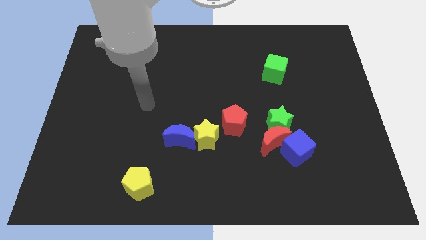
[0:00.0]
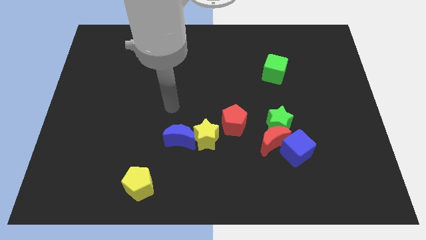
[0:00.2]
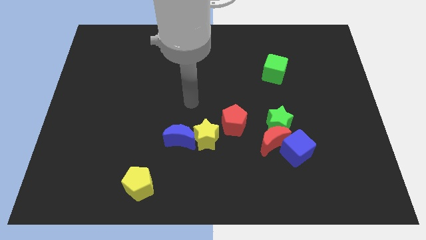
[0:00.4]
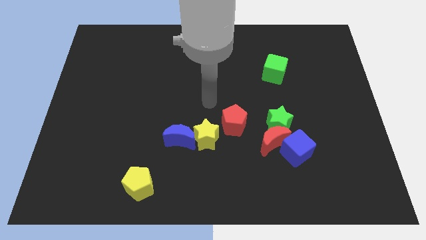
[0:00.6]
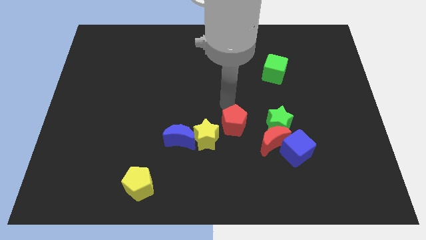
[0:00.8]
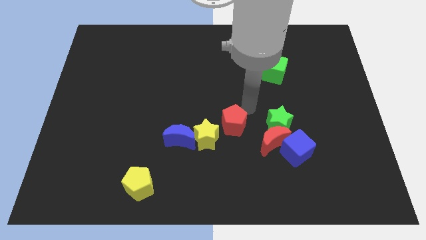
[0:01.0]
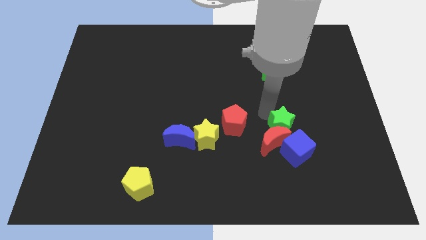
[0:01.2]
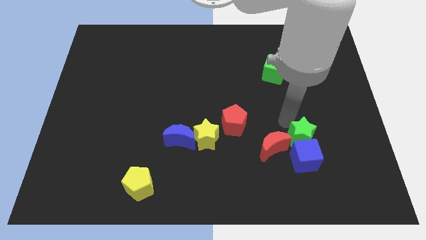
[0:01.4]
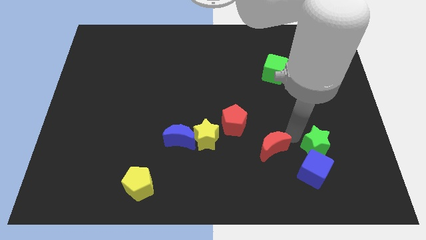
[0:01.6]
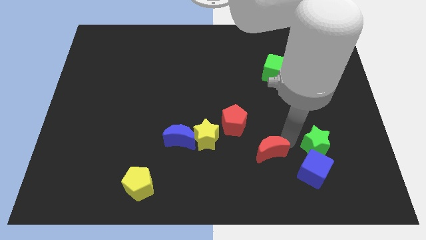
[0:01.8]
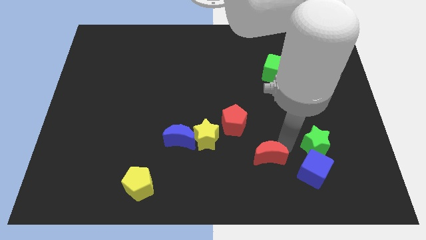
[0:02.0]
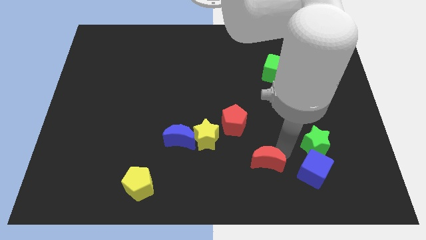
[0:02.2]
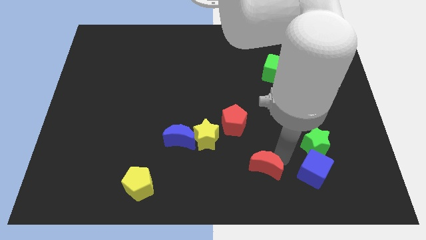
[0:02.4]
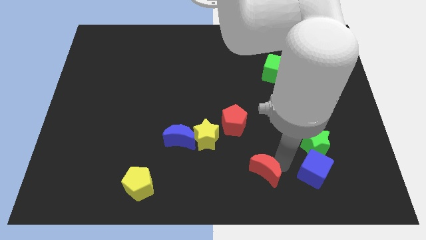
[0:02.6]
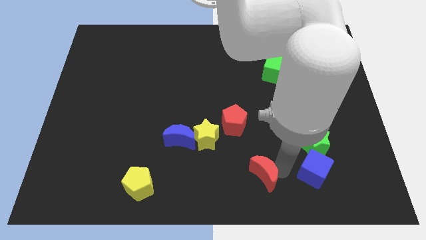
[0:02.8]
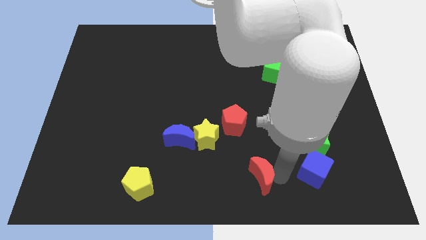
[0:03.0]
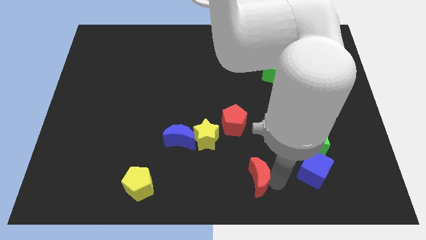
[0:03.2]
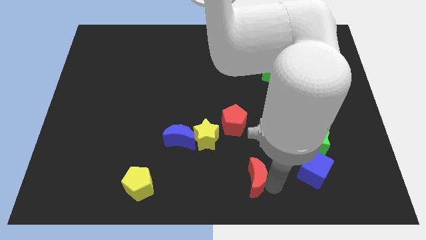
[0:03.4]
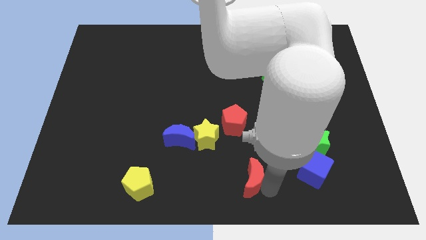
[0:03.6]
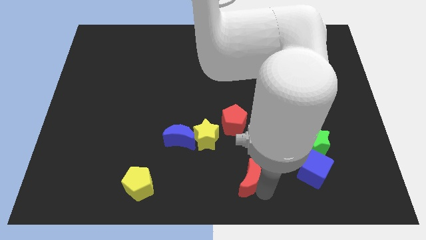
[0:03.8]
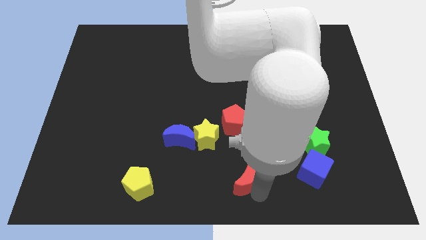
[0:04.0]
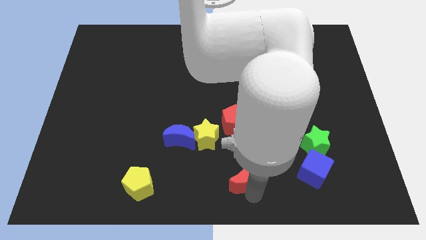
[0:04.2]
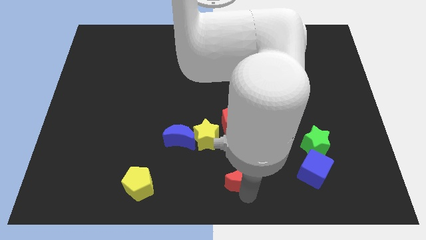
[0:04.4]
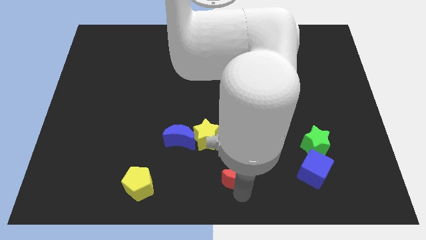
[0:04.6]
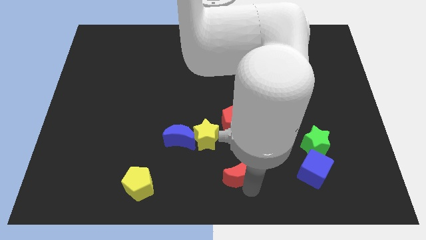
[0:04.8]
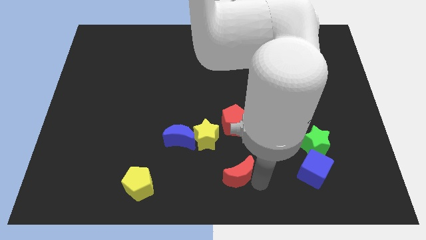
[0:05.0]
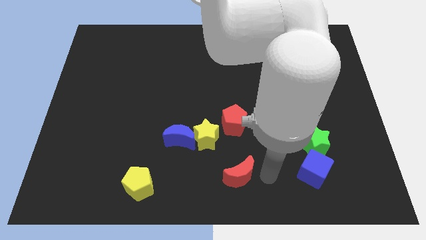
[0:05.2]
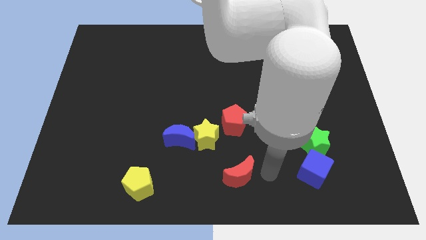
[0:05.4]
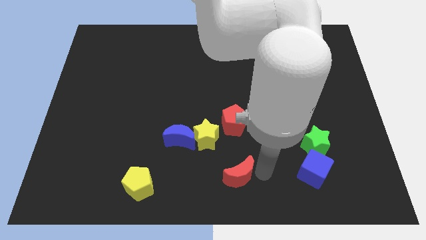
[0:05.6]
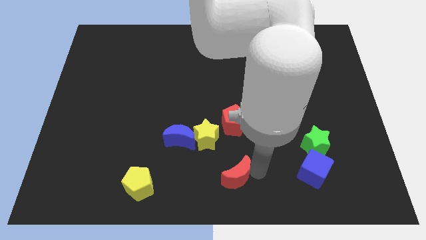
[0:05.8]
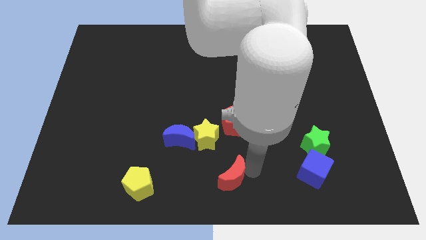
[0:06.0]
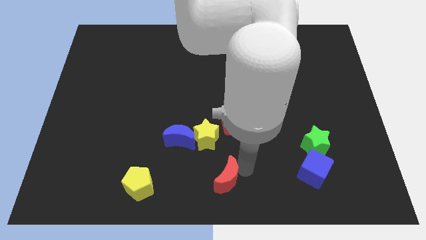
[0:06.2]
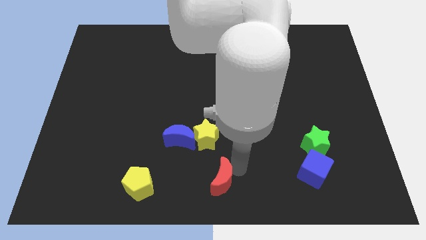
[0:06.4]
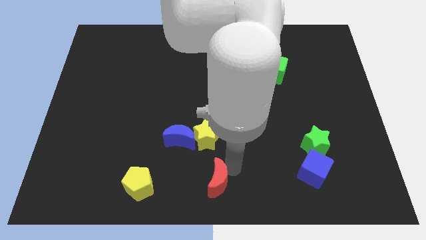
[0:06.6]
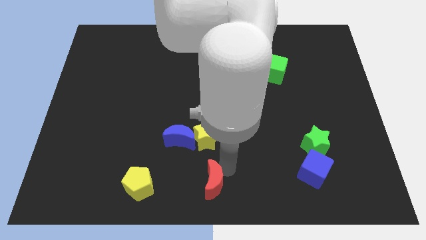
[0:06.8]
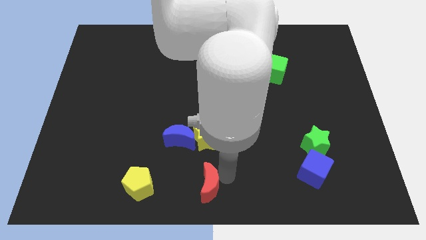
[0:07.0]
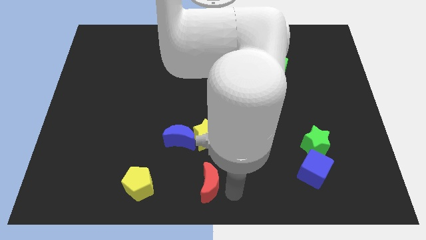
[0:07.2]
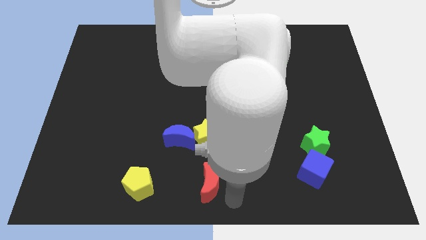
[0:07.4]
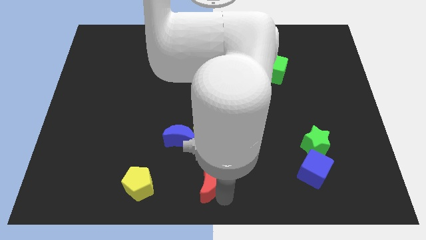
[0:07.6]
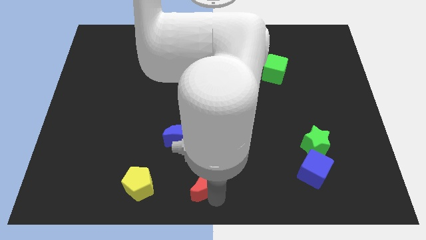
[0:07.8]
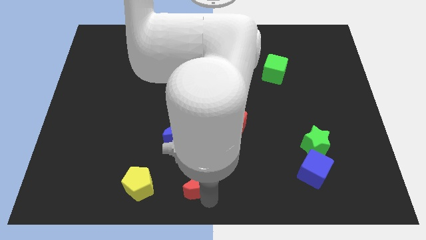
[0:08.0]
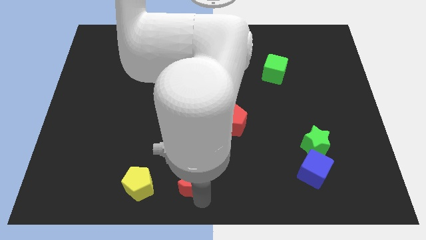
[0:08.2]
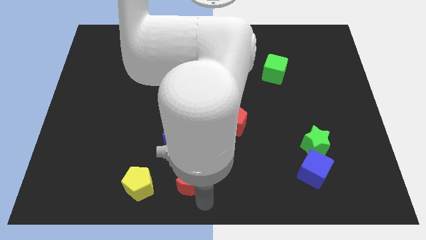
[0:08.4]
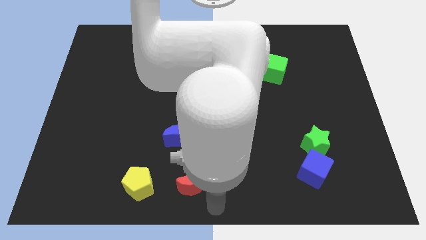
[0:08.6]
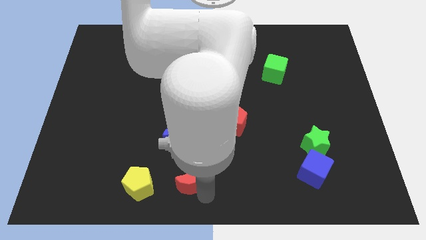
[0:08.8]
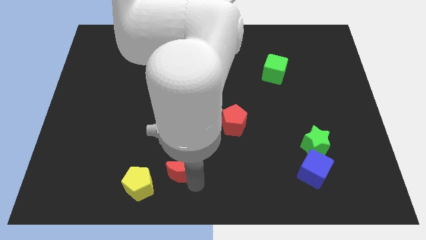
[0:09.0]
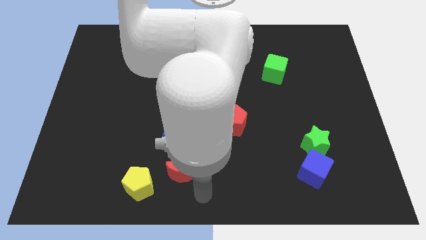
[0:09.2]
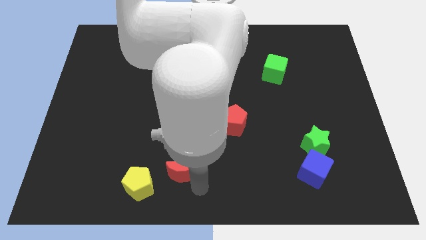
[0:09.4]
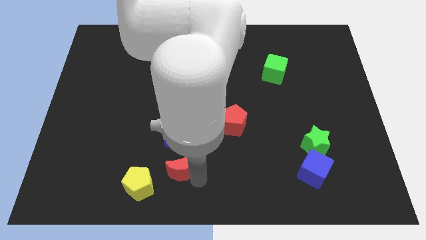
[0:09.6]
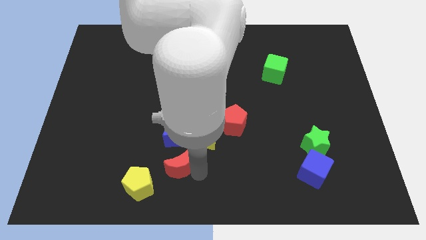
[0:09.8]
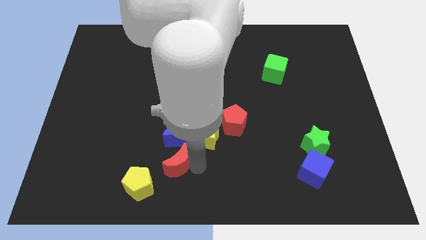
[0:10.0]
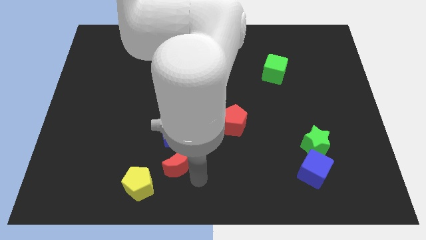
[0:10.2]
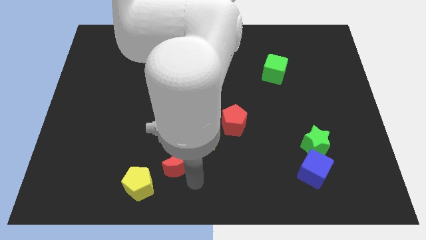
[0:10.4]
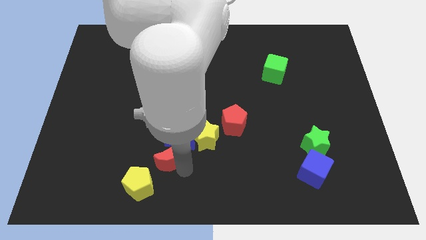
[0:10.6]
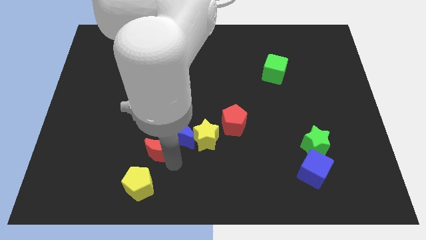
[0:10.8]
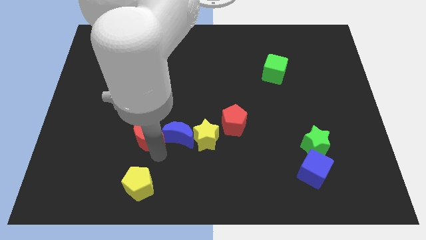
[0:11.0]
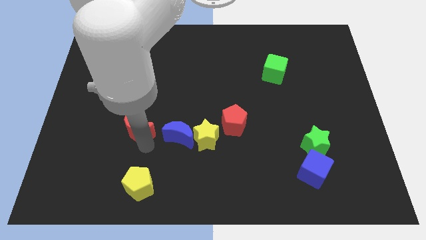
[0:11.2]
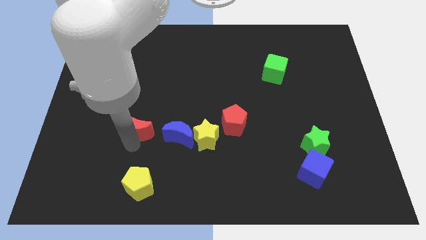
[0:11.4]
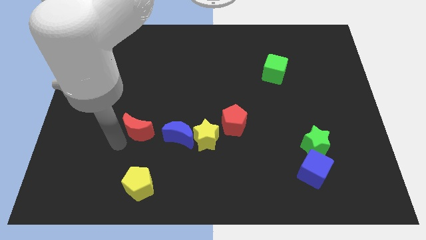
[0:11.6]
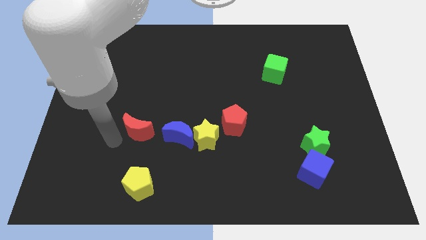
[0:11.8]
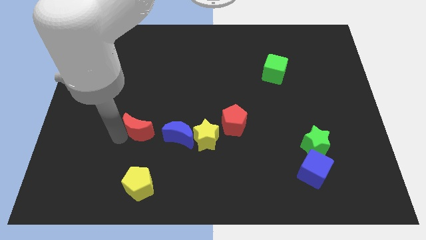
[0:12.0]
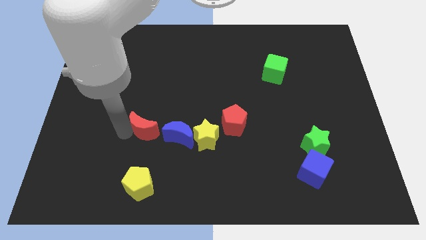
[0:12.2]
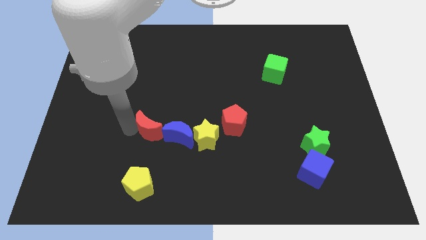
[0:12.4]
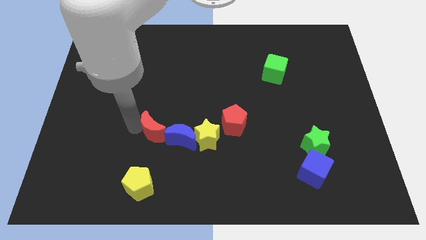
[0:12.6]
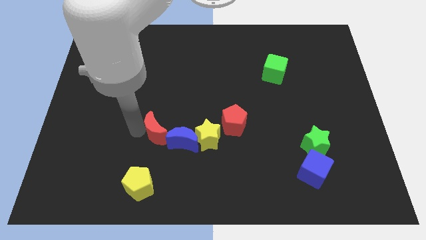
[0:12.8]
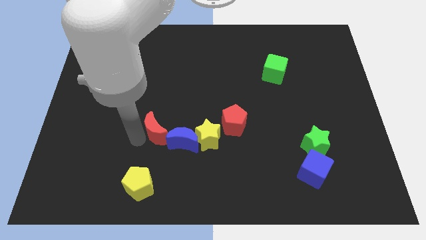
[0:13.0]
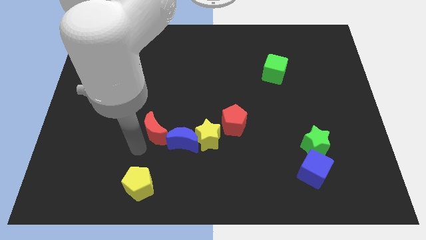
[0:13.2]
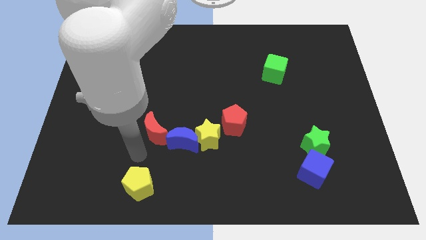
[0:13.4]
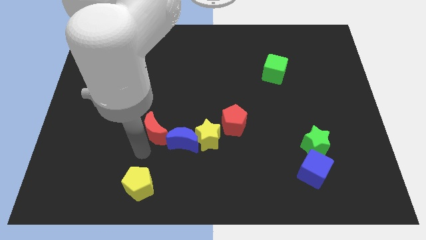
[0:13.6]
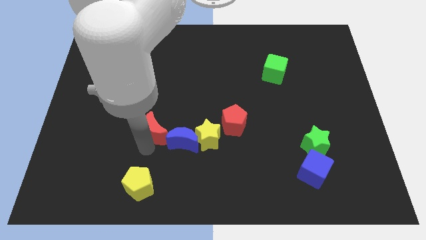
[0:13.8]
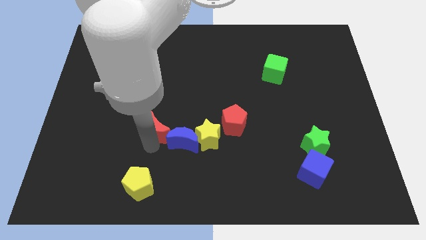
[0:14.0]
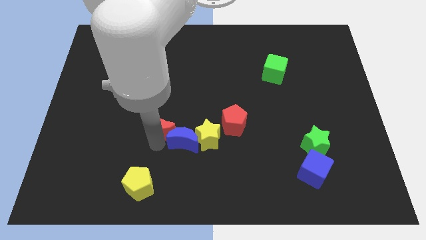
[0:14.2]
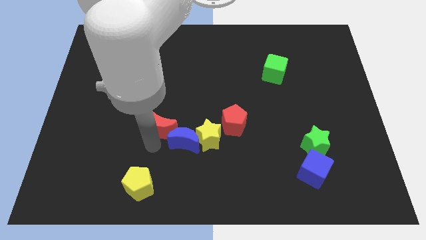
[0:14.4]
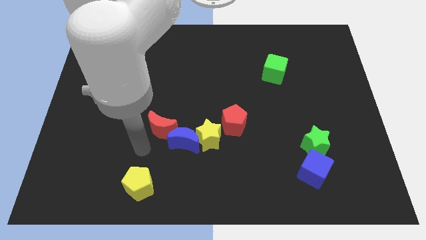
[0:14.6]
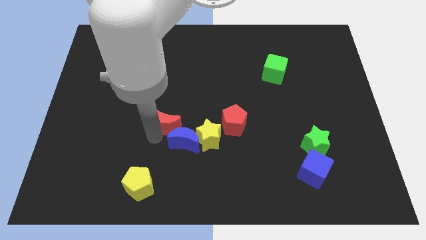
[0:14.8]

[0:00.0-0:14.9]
put the red moon to the top of the blue moon
